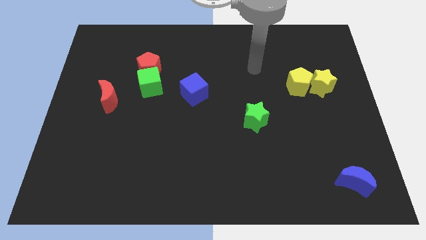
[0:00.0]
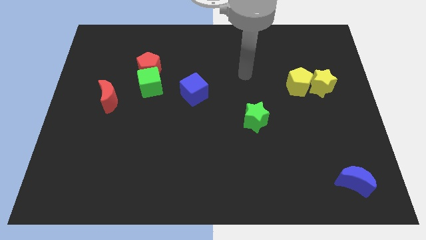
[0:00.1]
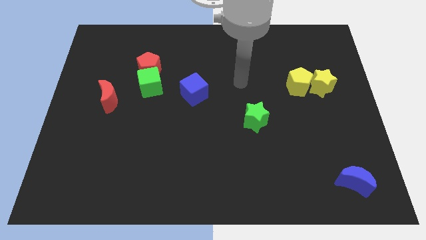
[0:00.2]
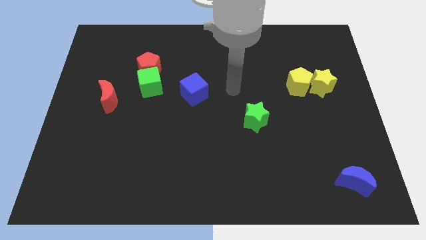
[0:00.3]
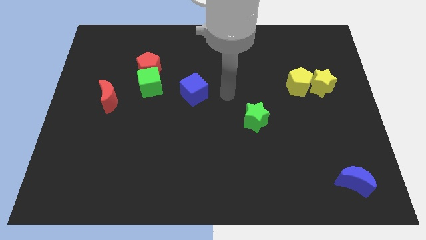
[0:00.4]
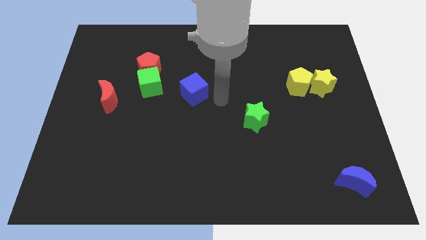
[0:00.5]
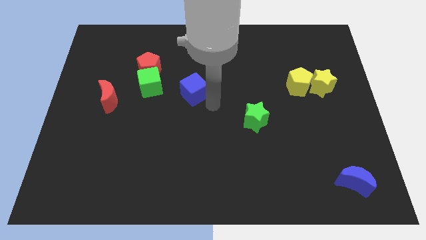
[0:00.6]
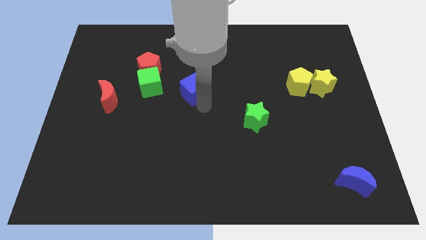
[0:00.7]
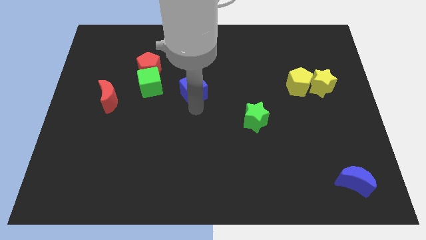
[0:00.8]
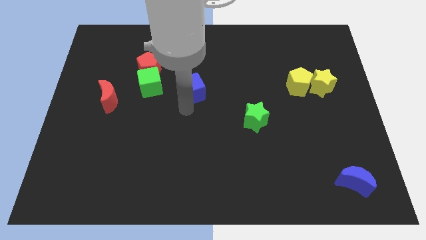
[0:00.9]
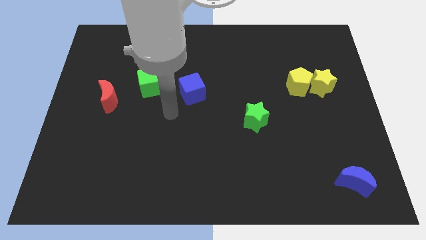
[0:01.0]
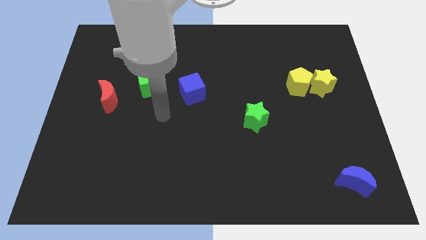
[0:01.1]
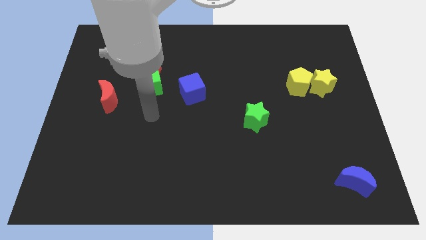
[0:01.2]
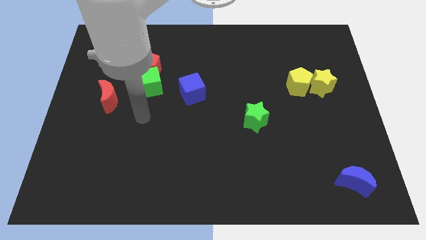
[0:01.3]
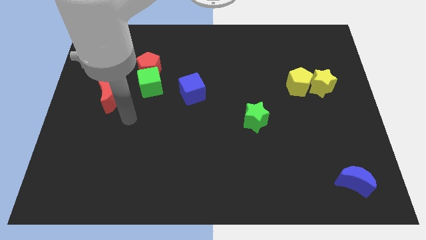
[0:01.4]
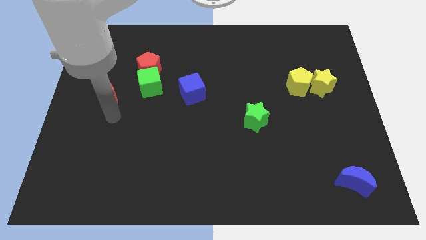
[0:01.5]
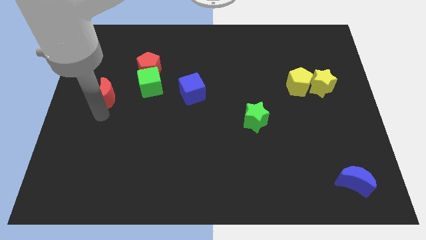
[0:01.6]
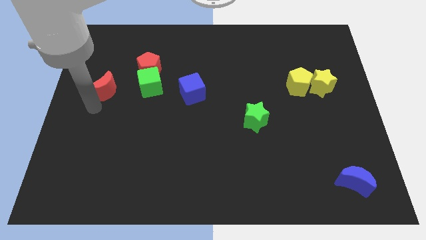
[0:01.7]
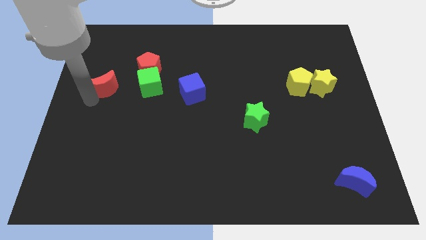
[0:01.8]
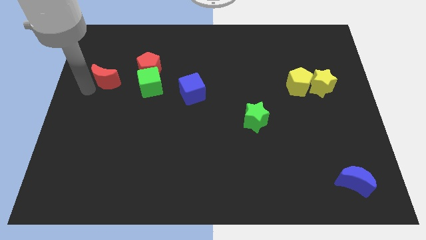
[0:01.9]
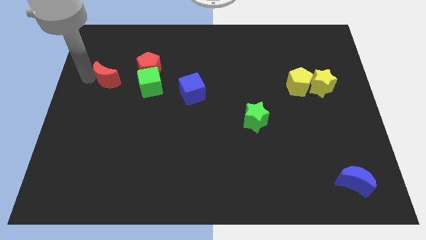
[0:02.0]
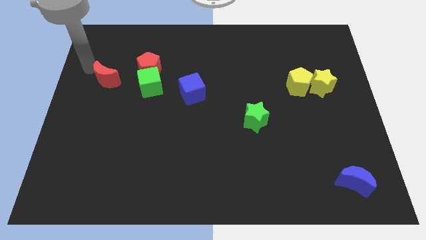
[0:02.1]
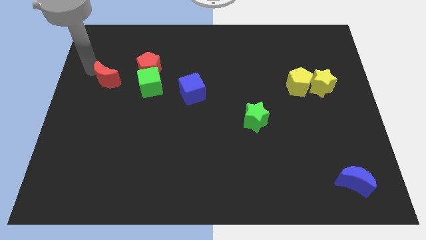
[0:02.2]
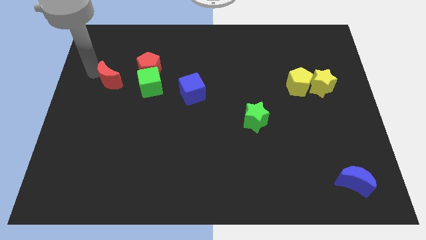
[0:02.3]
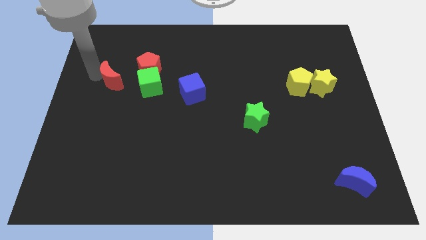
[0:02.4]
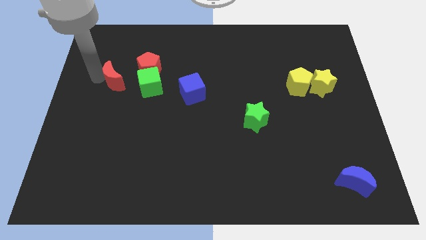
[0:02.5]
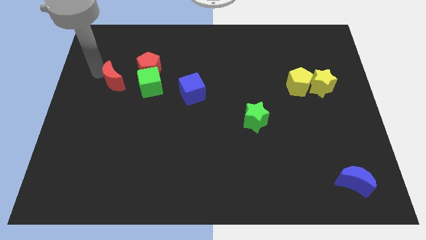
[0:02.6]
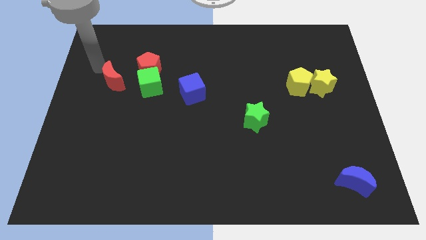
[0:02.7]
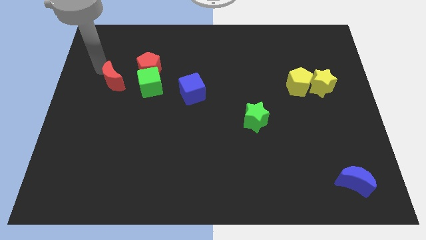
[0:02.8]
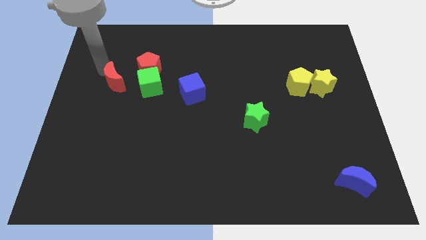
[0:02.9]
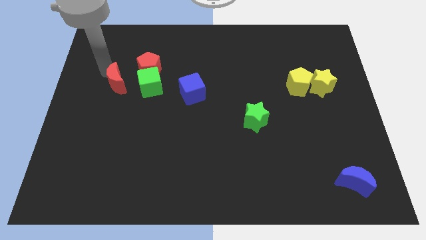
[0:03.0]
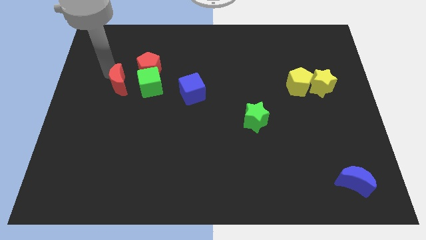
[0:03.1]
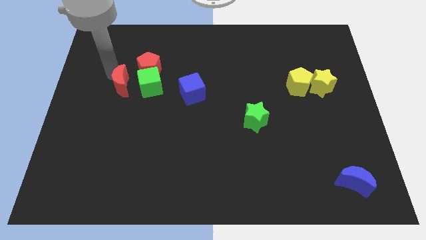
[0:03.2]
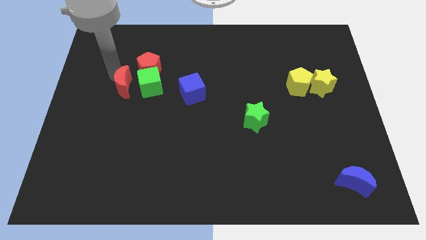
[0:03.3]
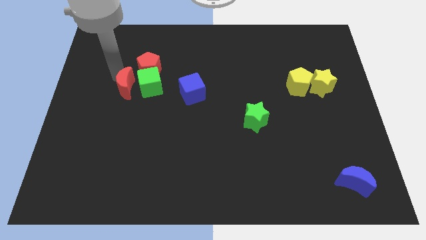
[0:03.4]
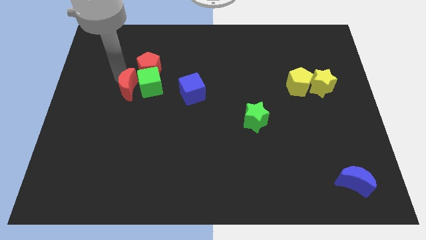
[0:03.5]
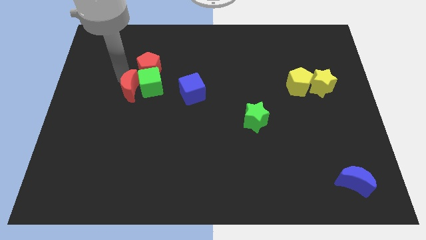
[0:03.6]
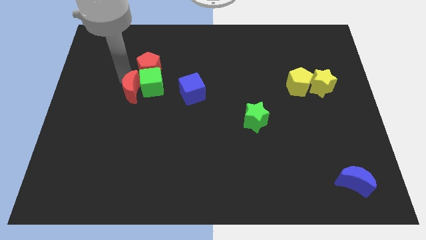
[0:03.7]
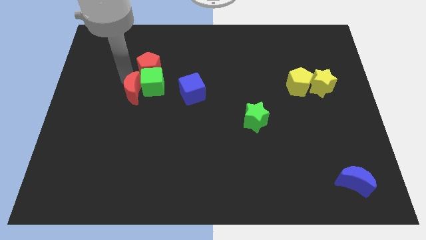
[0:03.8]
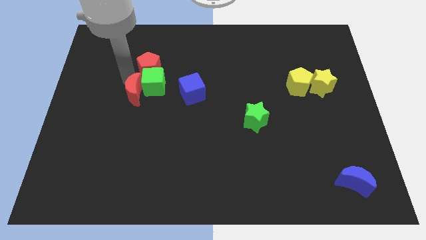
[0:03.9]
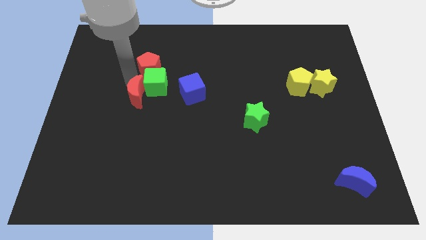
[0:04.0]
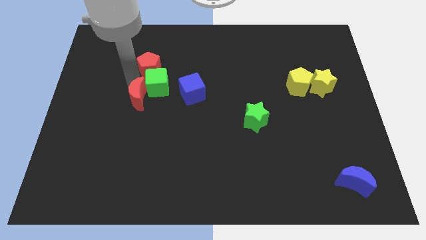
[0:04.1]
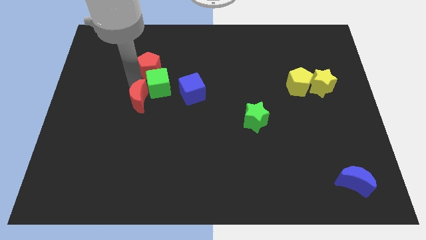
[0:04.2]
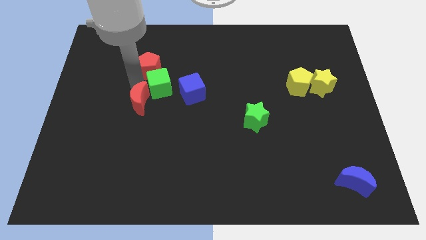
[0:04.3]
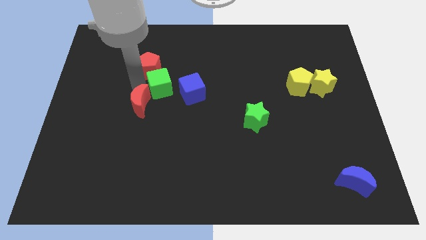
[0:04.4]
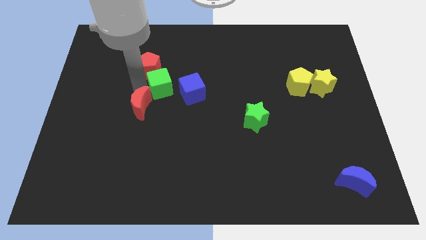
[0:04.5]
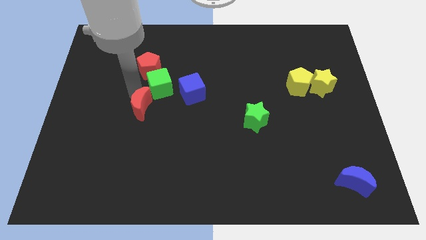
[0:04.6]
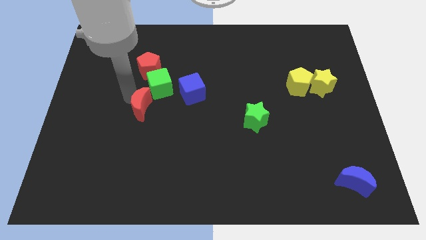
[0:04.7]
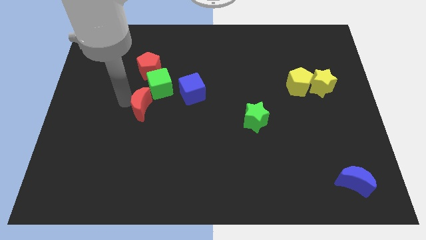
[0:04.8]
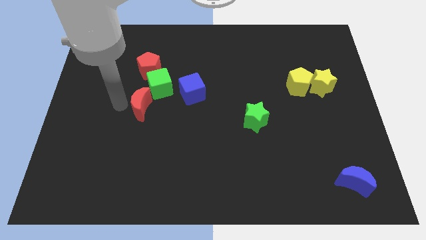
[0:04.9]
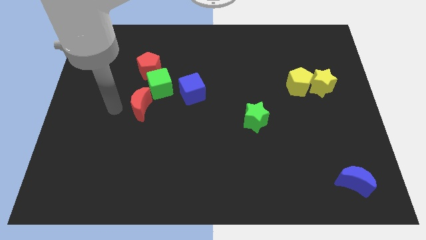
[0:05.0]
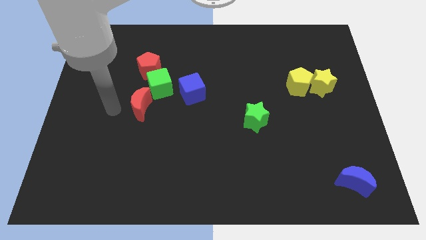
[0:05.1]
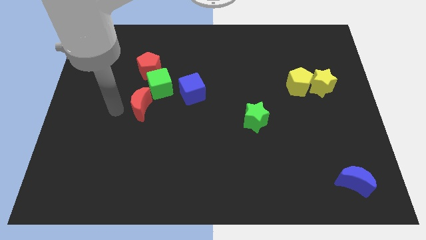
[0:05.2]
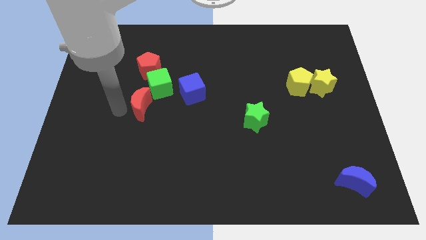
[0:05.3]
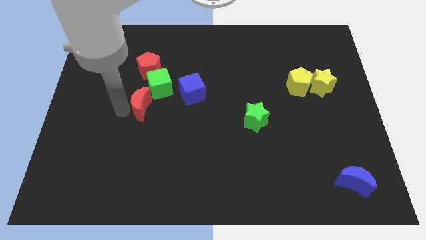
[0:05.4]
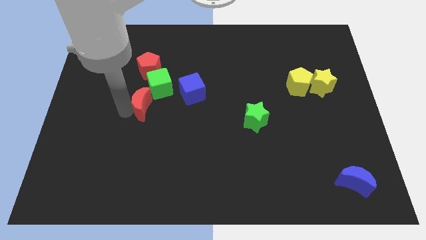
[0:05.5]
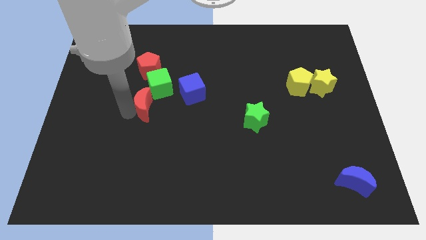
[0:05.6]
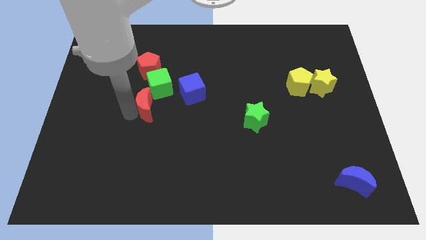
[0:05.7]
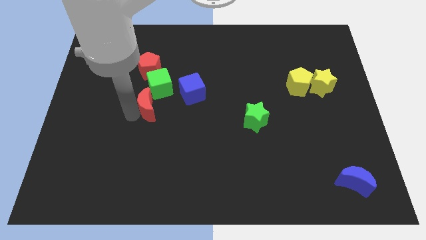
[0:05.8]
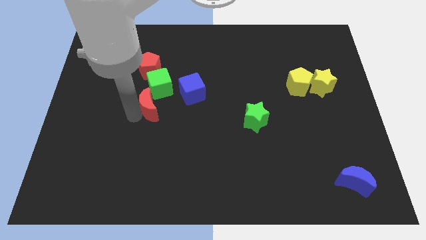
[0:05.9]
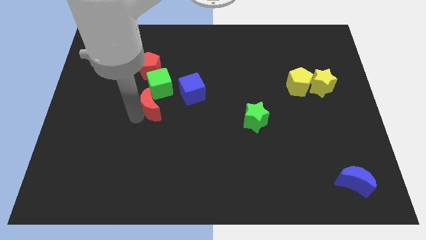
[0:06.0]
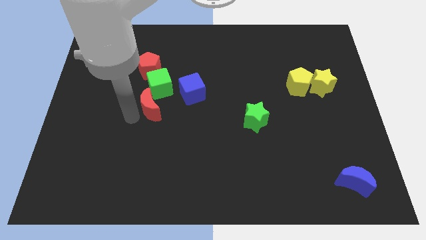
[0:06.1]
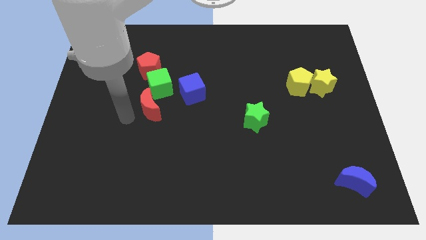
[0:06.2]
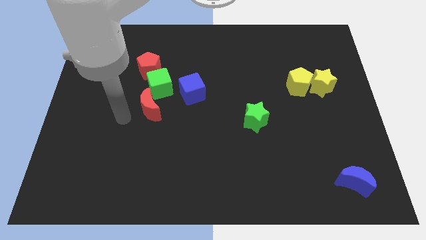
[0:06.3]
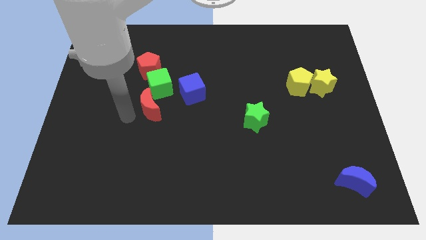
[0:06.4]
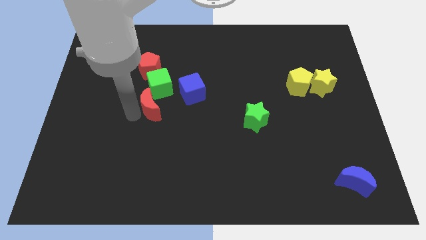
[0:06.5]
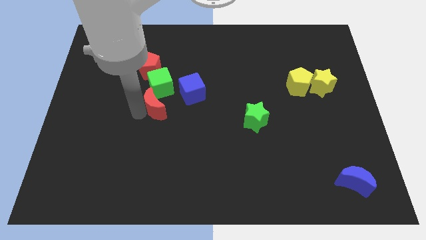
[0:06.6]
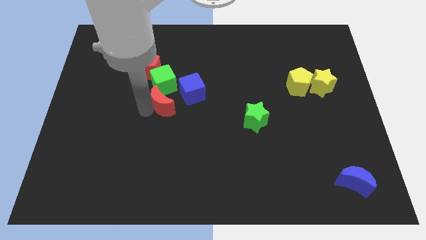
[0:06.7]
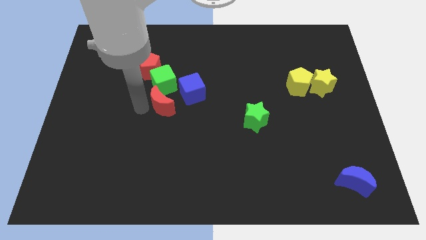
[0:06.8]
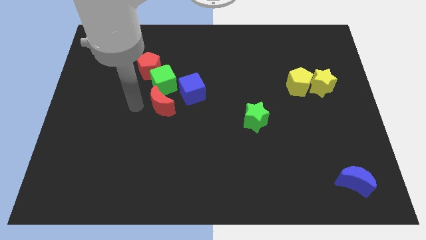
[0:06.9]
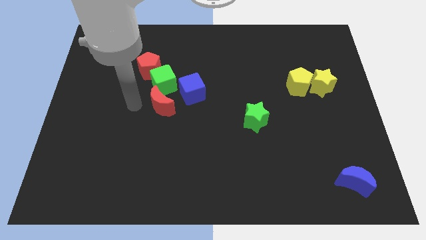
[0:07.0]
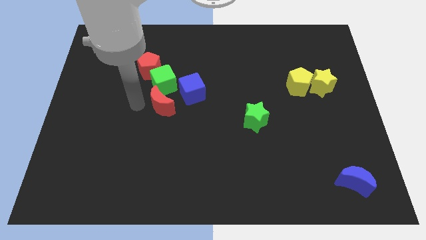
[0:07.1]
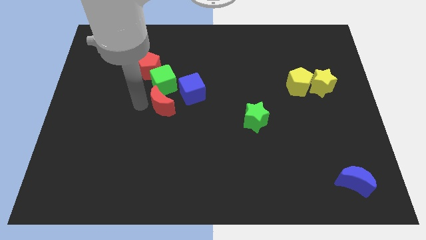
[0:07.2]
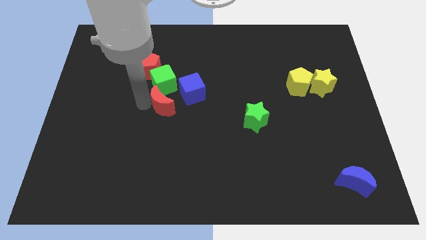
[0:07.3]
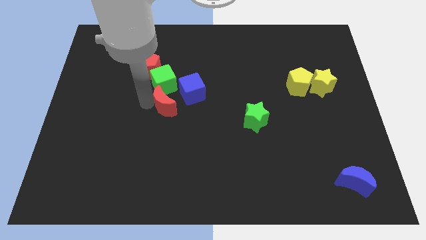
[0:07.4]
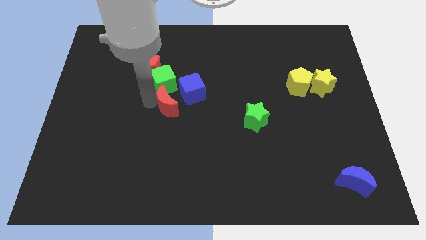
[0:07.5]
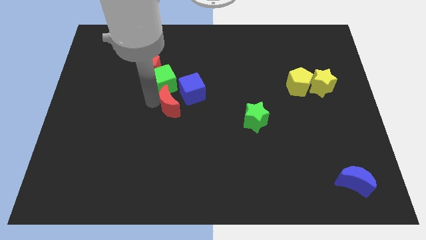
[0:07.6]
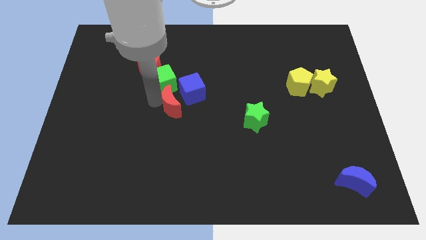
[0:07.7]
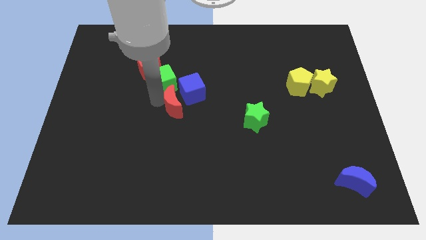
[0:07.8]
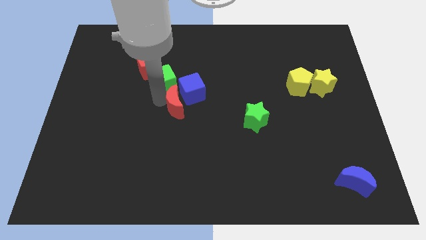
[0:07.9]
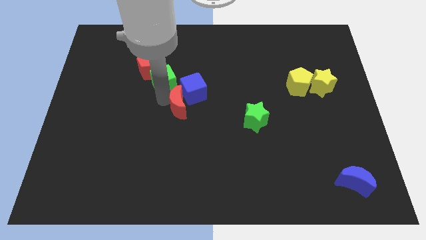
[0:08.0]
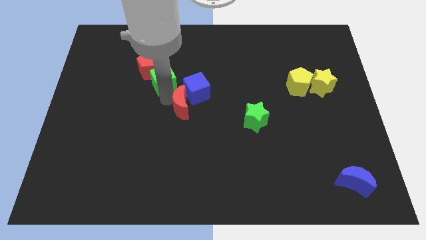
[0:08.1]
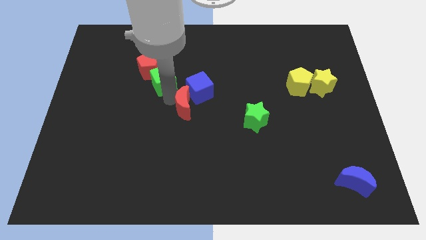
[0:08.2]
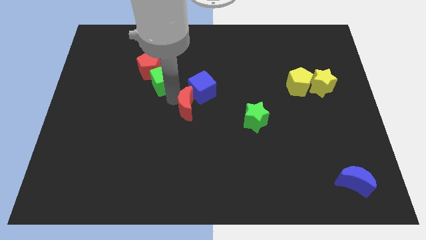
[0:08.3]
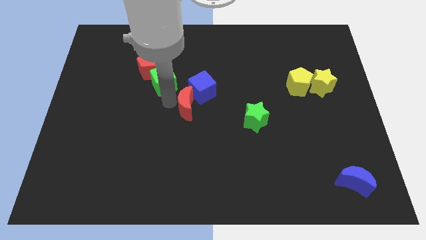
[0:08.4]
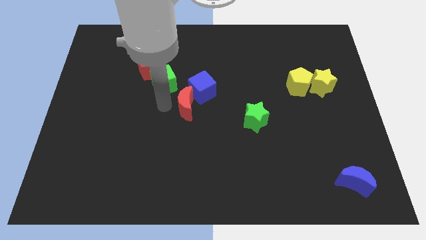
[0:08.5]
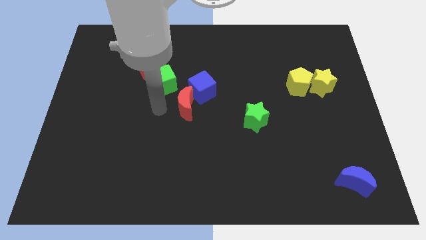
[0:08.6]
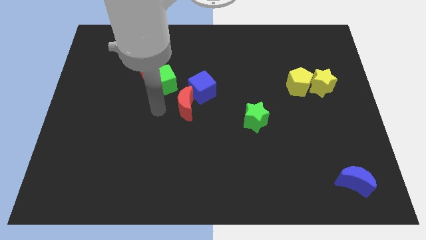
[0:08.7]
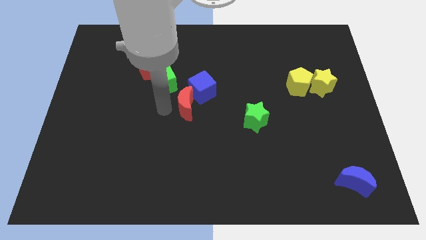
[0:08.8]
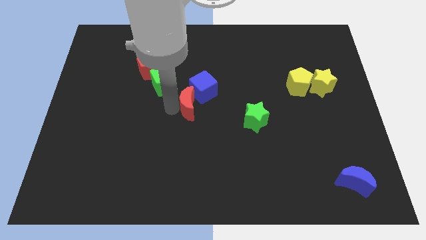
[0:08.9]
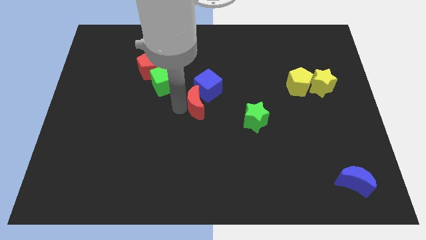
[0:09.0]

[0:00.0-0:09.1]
slide the red moon to the right
